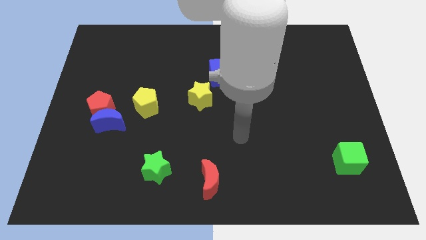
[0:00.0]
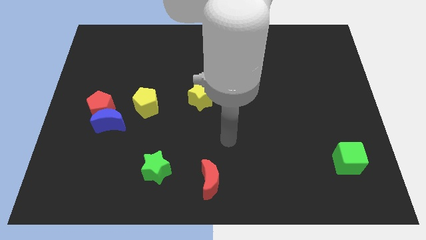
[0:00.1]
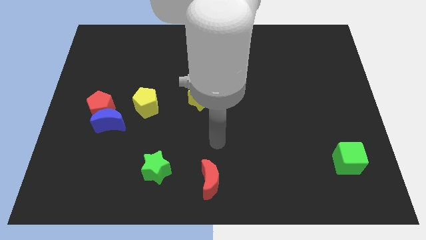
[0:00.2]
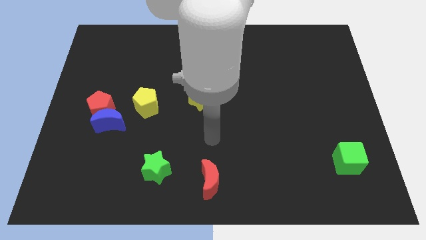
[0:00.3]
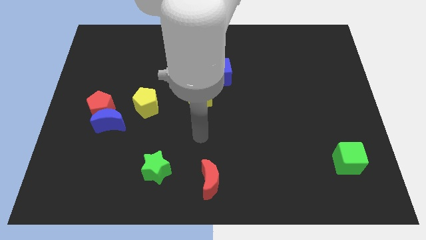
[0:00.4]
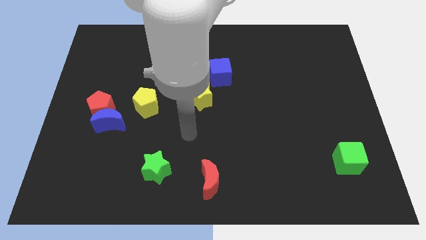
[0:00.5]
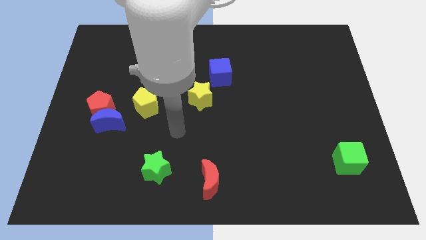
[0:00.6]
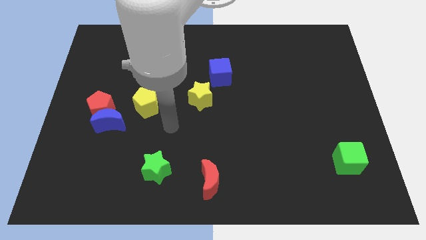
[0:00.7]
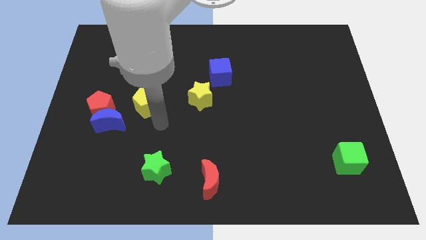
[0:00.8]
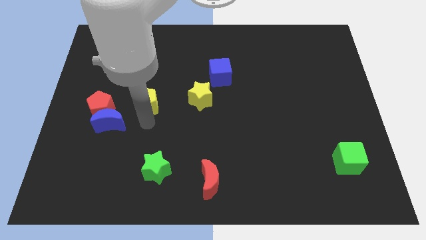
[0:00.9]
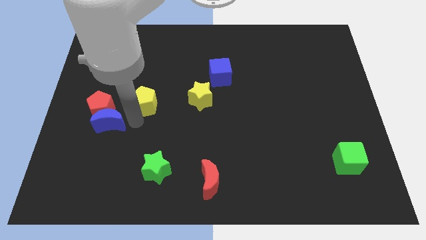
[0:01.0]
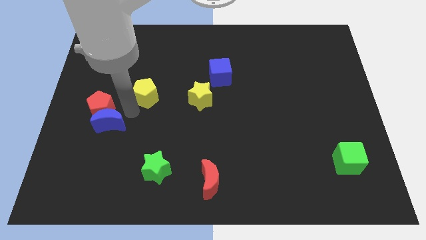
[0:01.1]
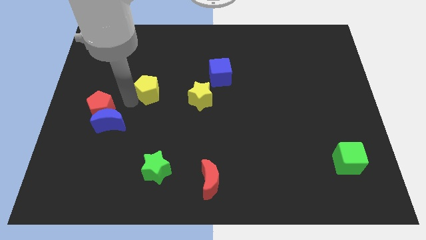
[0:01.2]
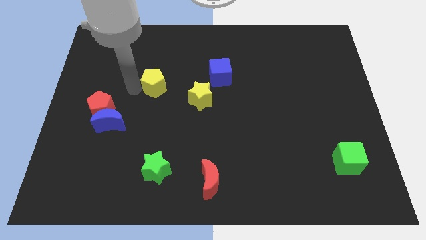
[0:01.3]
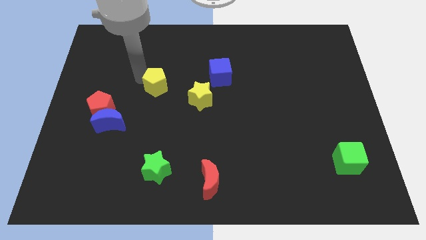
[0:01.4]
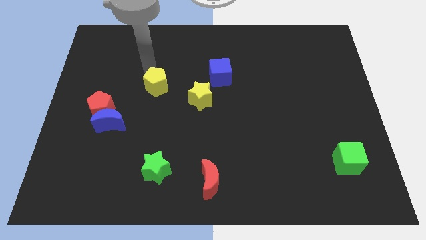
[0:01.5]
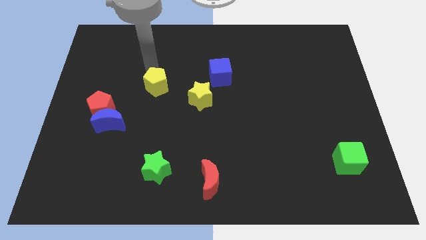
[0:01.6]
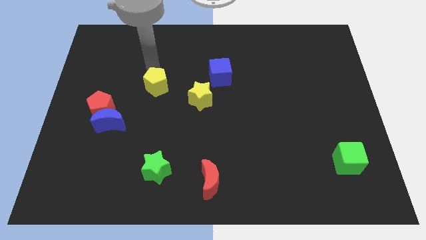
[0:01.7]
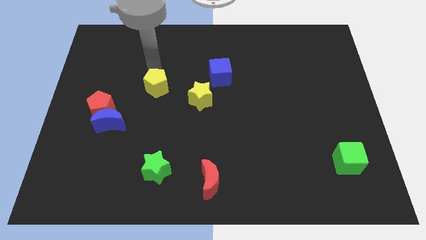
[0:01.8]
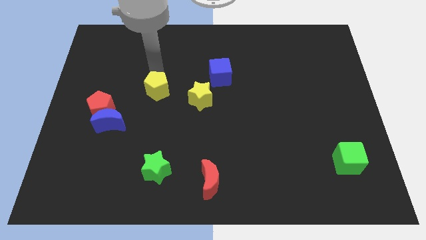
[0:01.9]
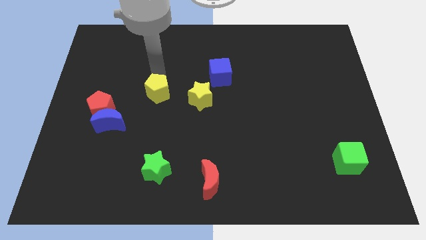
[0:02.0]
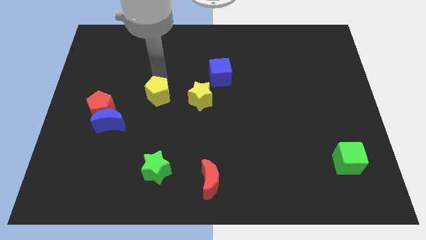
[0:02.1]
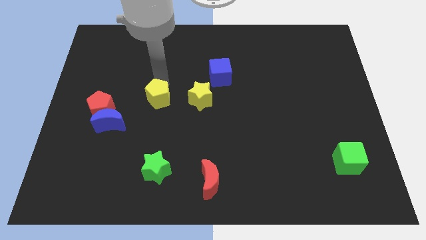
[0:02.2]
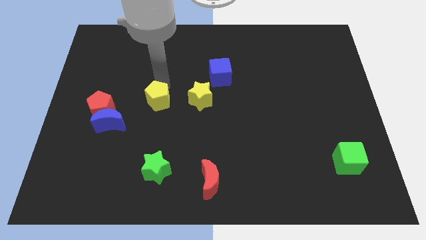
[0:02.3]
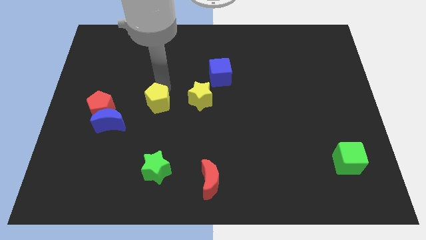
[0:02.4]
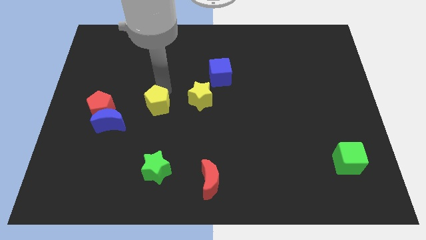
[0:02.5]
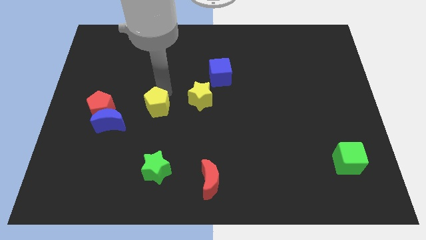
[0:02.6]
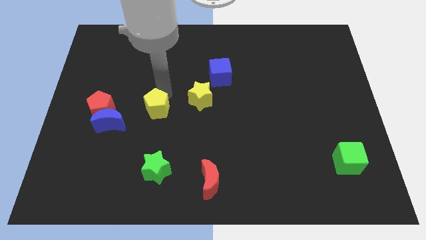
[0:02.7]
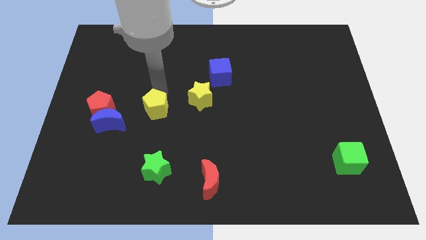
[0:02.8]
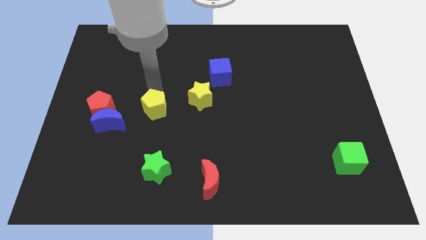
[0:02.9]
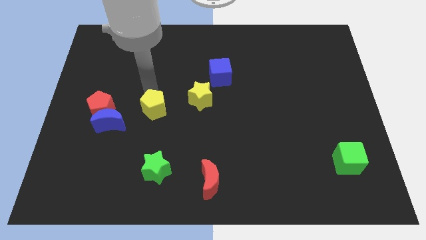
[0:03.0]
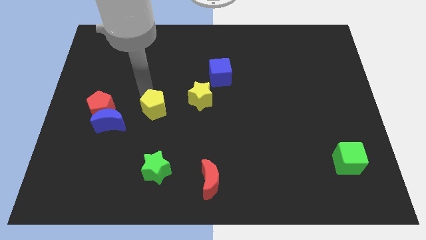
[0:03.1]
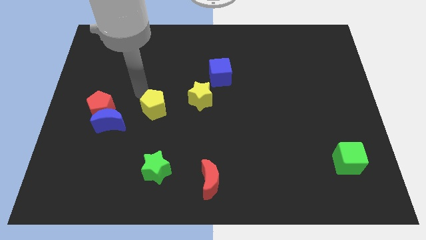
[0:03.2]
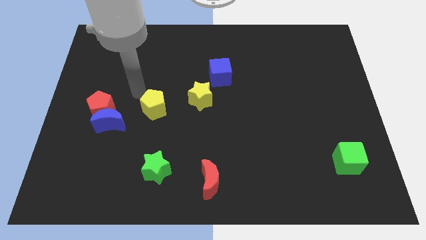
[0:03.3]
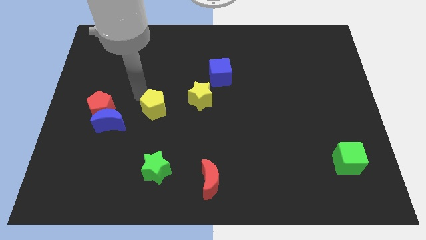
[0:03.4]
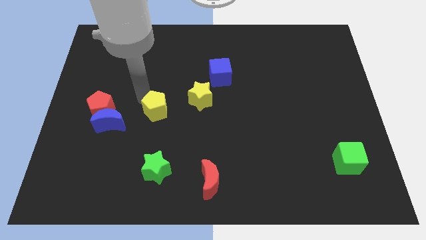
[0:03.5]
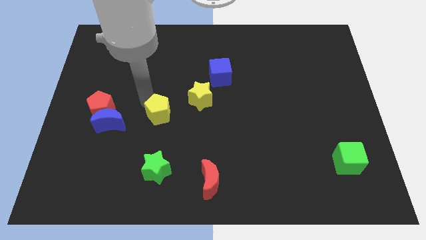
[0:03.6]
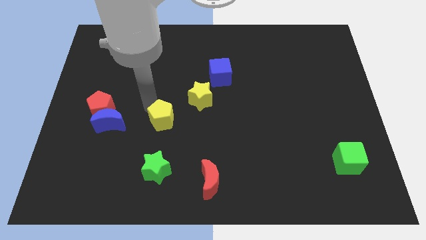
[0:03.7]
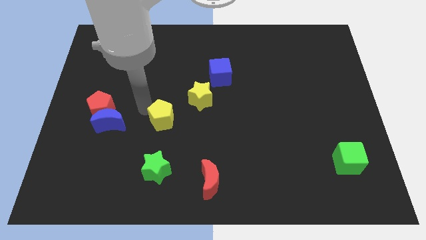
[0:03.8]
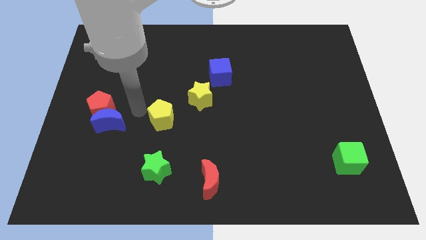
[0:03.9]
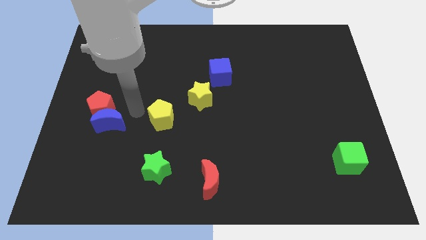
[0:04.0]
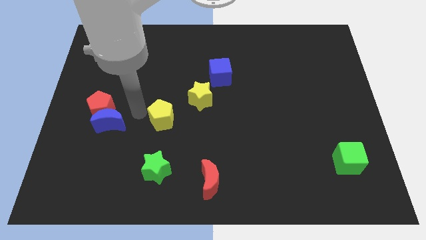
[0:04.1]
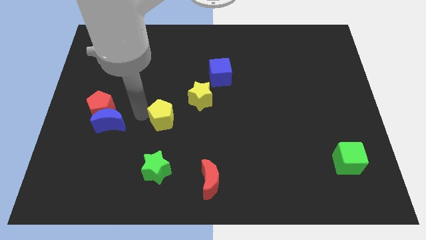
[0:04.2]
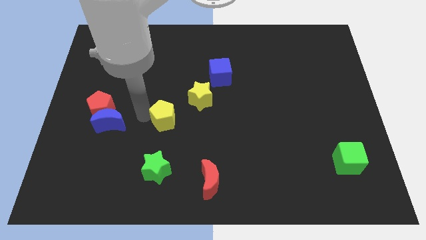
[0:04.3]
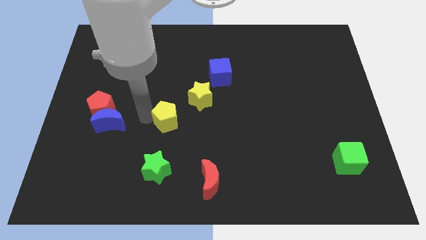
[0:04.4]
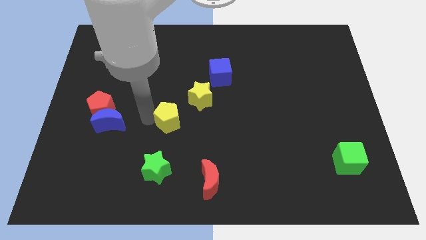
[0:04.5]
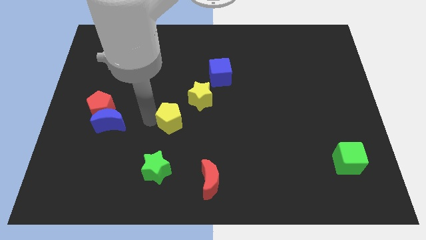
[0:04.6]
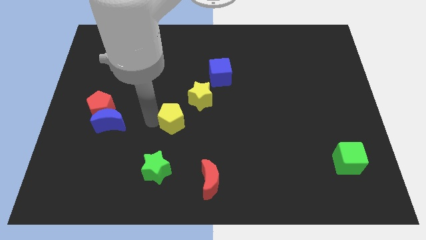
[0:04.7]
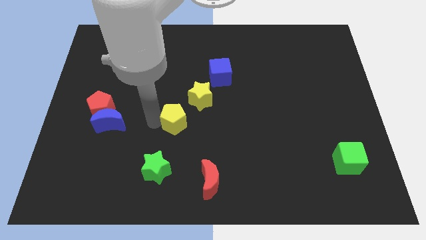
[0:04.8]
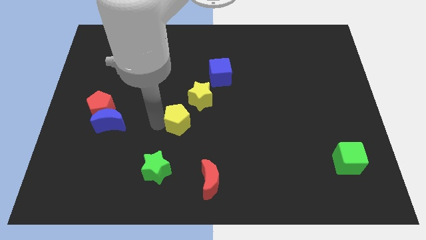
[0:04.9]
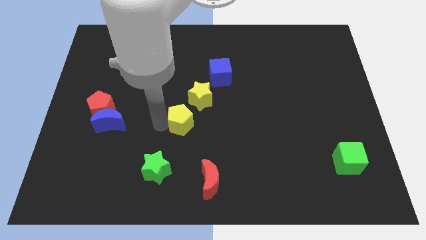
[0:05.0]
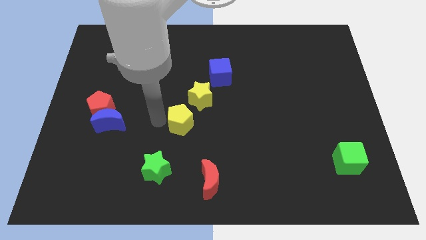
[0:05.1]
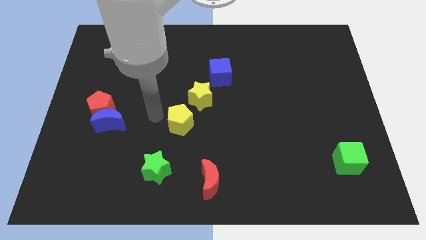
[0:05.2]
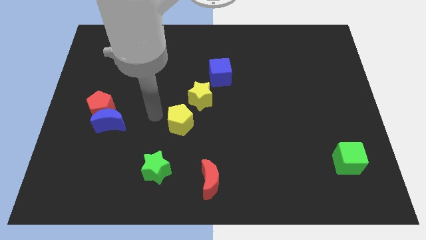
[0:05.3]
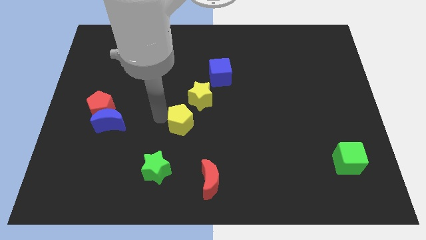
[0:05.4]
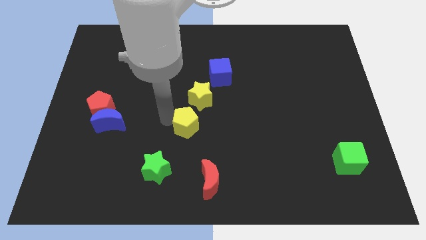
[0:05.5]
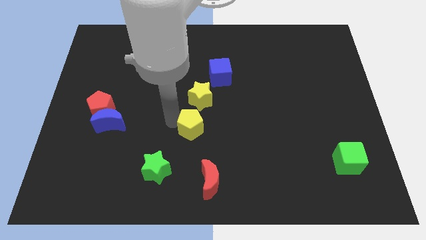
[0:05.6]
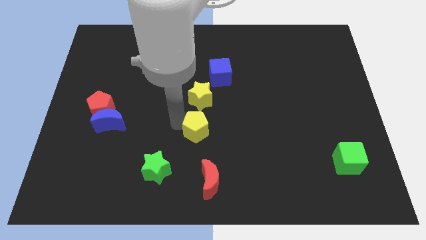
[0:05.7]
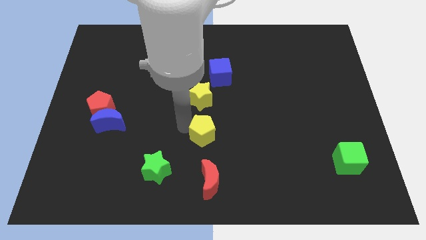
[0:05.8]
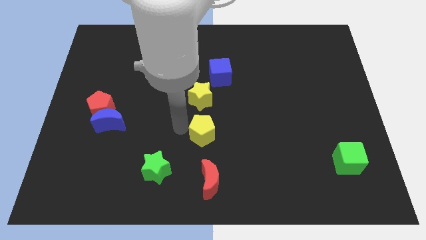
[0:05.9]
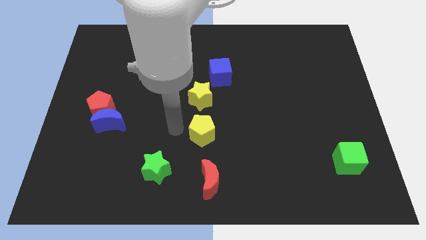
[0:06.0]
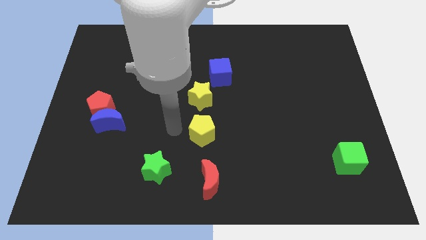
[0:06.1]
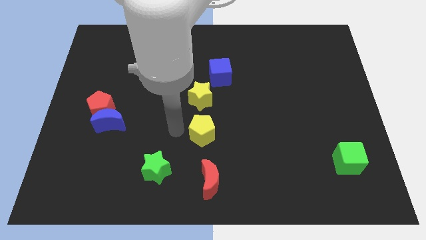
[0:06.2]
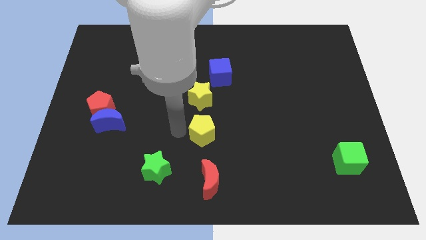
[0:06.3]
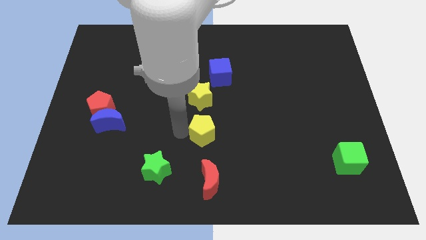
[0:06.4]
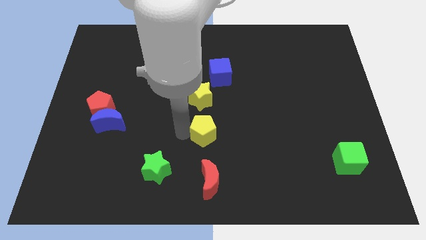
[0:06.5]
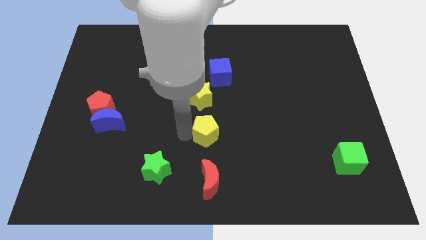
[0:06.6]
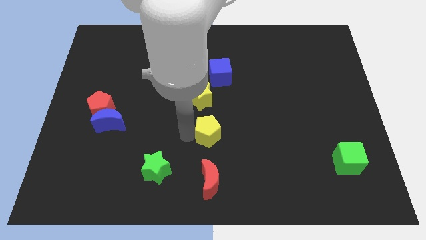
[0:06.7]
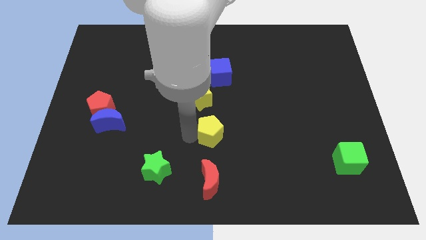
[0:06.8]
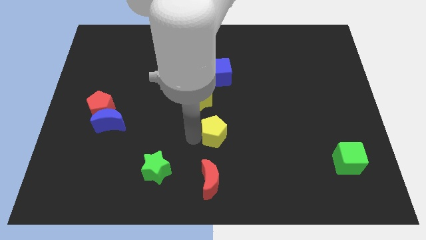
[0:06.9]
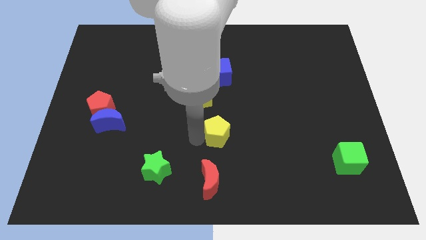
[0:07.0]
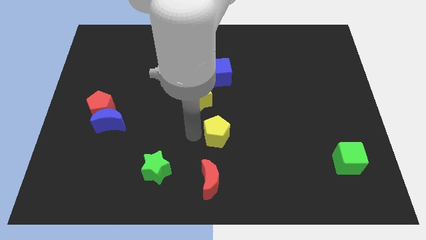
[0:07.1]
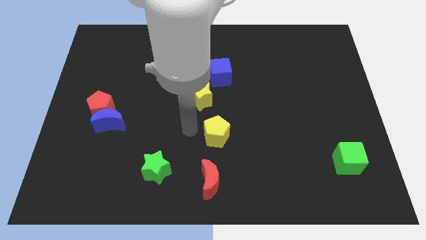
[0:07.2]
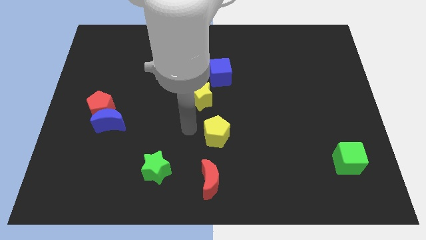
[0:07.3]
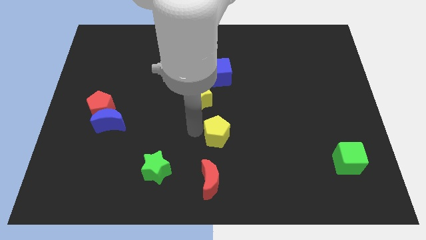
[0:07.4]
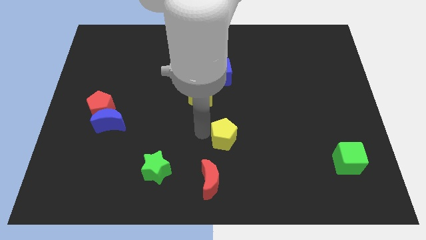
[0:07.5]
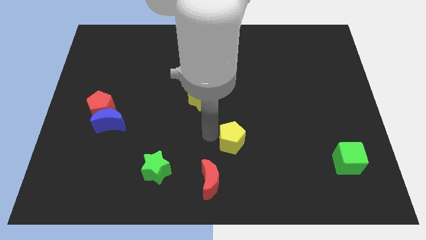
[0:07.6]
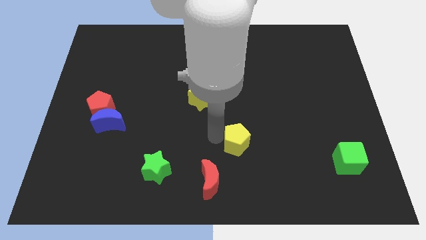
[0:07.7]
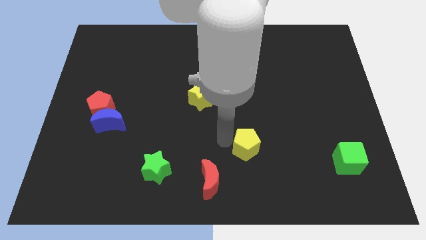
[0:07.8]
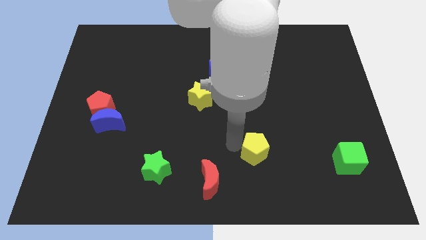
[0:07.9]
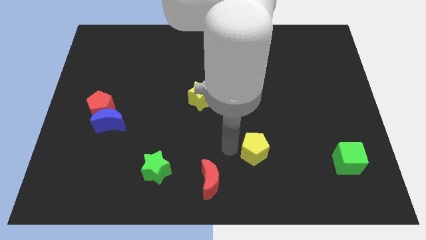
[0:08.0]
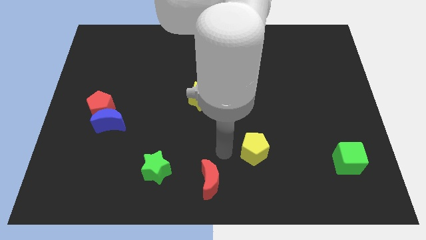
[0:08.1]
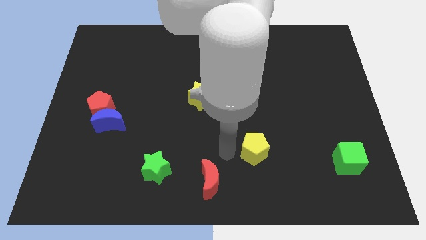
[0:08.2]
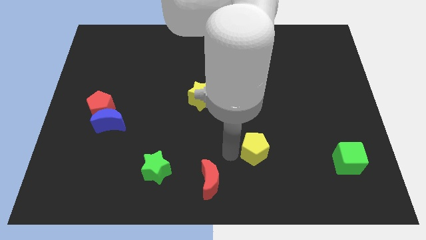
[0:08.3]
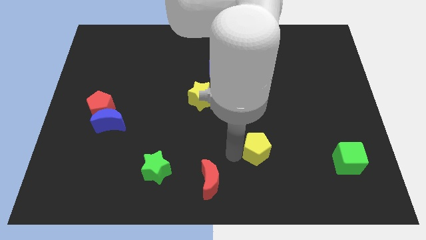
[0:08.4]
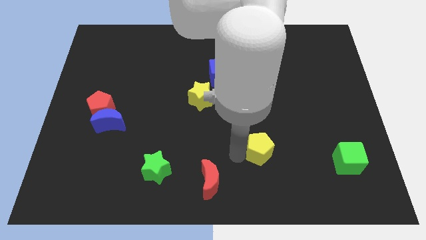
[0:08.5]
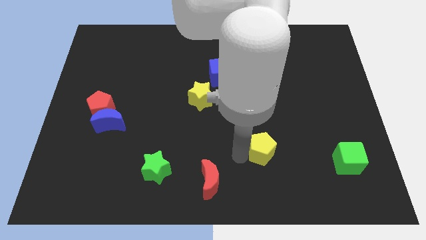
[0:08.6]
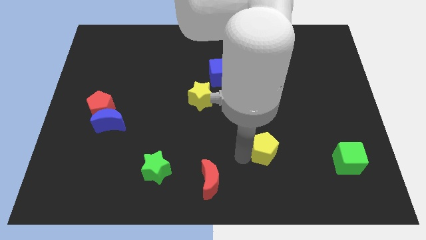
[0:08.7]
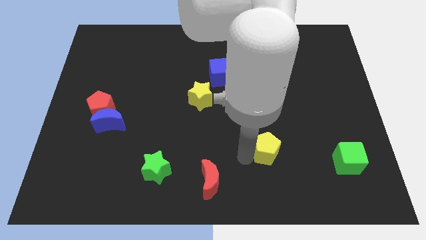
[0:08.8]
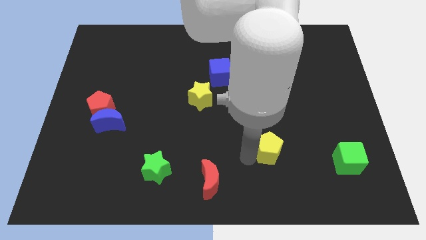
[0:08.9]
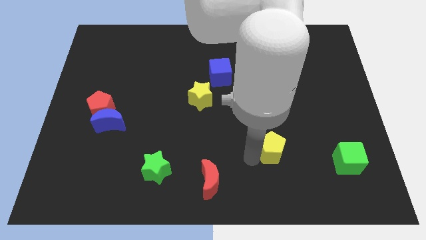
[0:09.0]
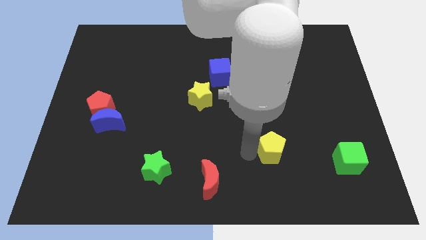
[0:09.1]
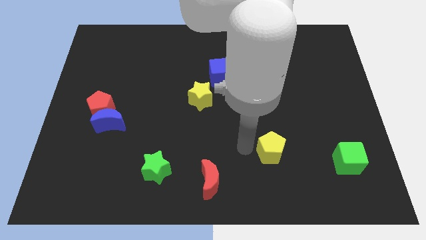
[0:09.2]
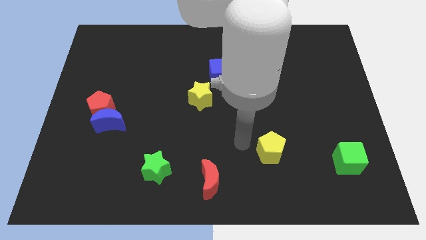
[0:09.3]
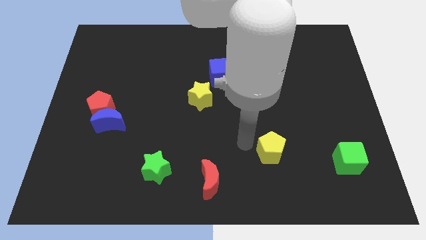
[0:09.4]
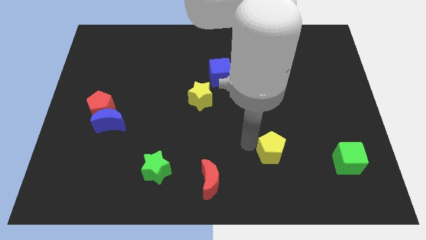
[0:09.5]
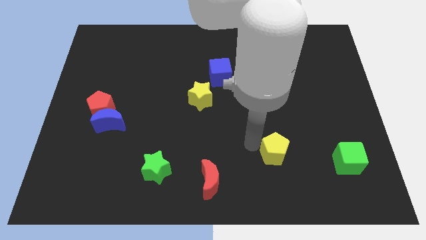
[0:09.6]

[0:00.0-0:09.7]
push the yellow pentagon just left of the green cube
